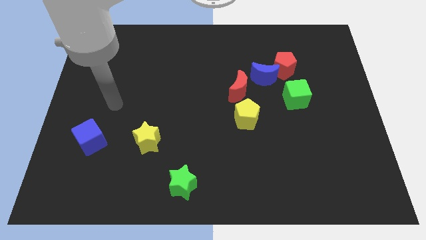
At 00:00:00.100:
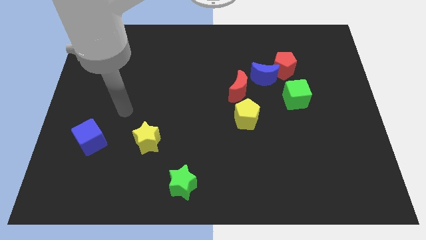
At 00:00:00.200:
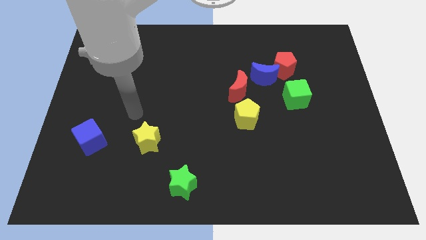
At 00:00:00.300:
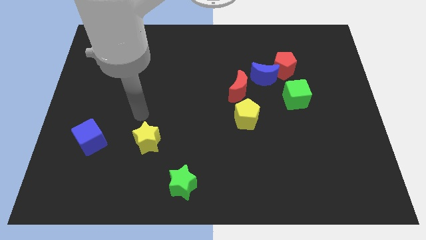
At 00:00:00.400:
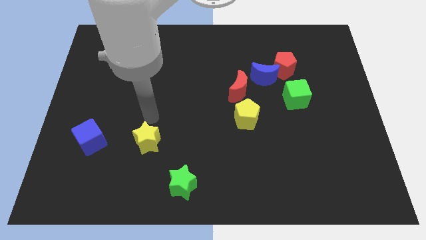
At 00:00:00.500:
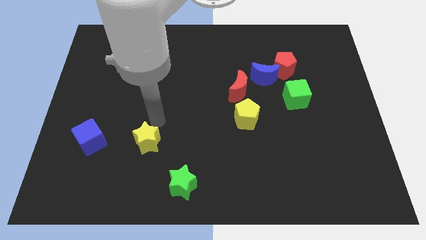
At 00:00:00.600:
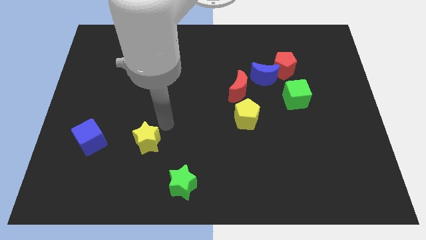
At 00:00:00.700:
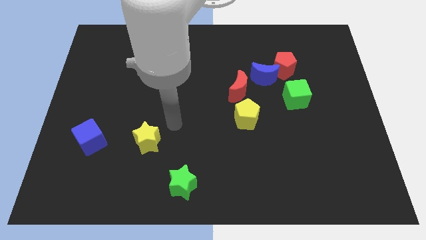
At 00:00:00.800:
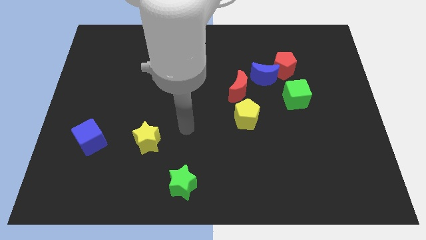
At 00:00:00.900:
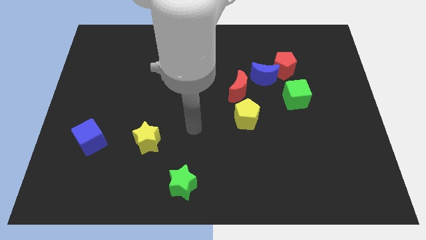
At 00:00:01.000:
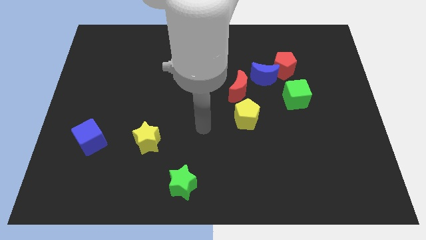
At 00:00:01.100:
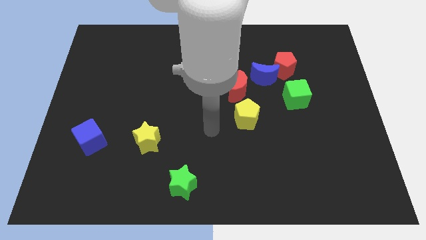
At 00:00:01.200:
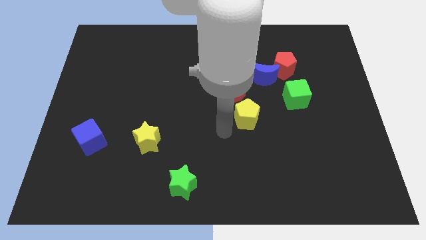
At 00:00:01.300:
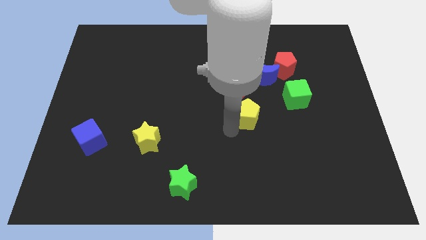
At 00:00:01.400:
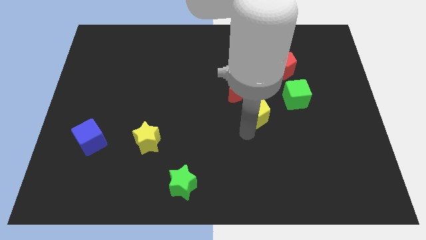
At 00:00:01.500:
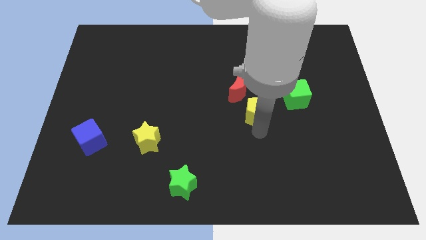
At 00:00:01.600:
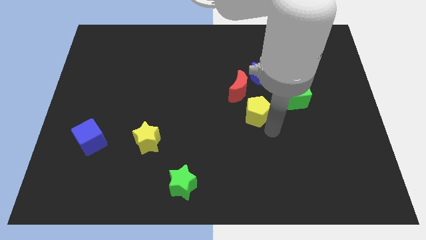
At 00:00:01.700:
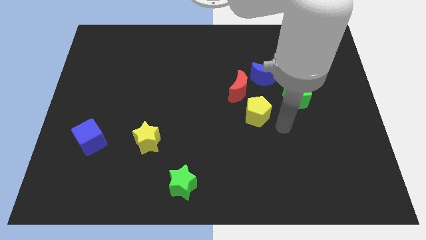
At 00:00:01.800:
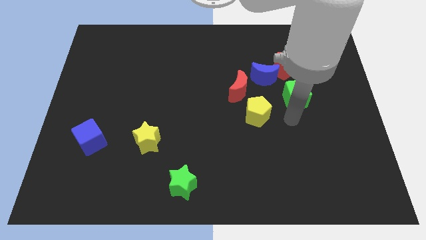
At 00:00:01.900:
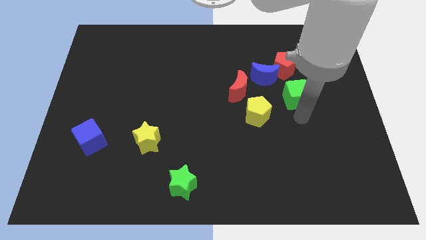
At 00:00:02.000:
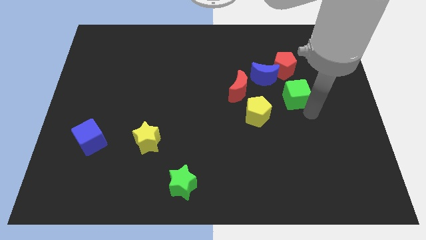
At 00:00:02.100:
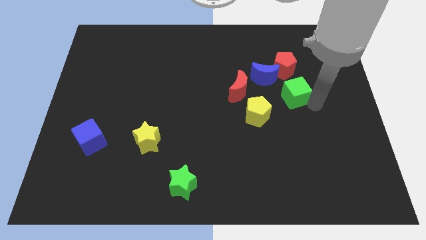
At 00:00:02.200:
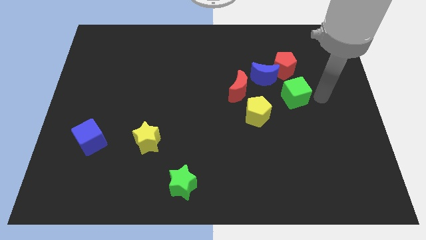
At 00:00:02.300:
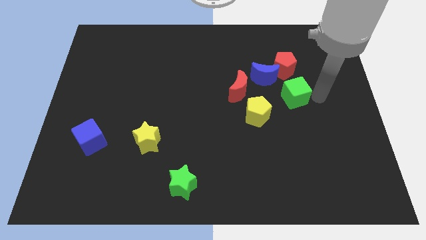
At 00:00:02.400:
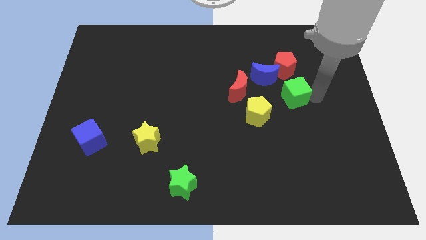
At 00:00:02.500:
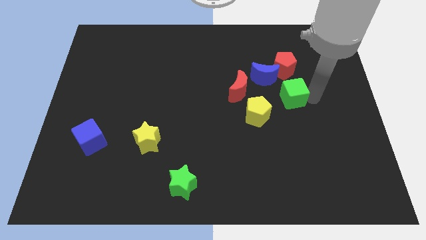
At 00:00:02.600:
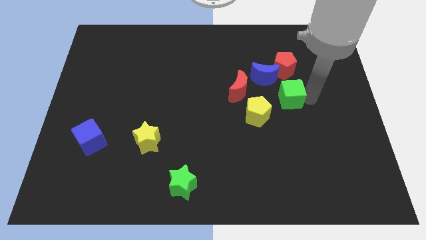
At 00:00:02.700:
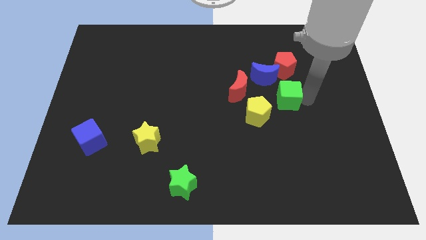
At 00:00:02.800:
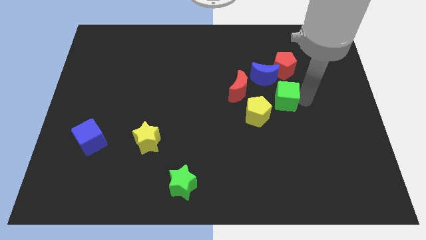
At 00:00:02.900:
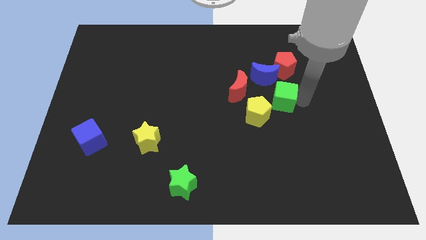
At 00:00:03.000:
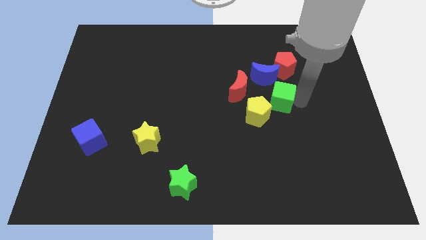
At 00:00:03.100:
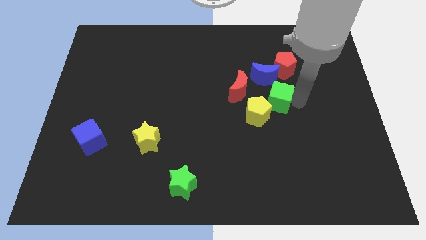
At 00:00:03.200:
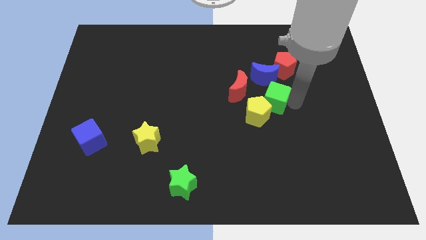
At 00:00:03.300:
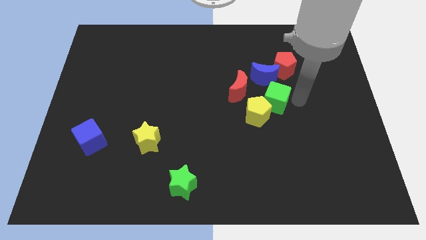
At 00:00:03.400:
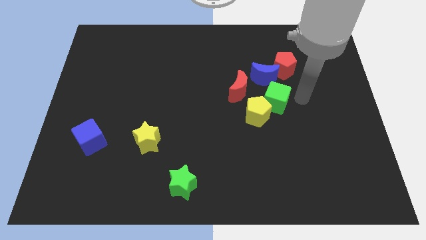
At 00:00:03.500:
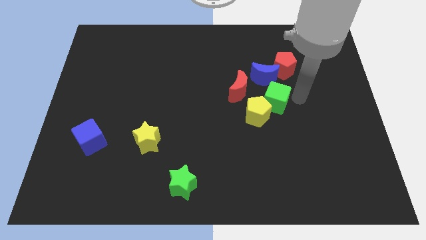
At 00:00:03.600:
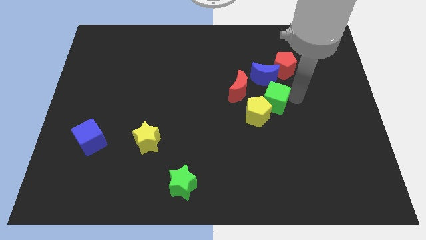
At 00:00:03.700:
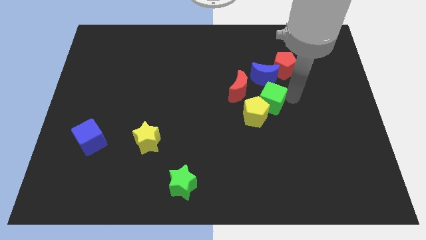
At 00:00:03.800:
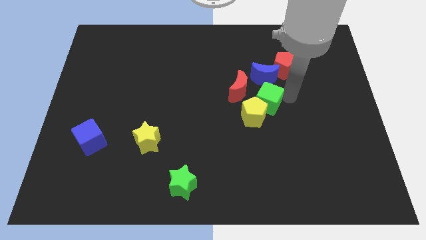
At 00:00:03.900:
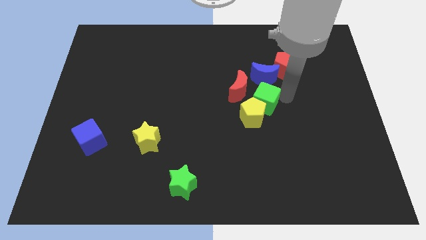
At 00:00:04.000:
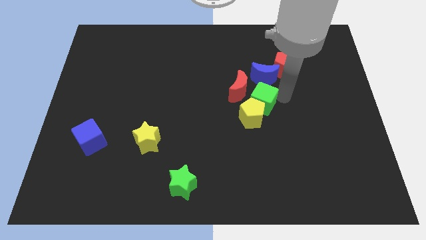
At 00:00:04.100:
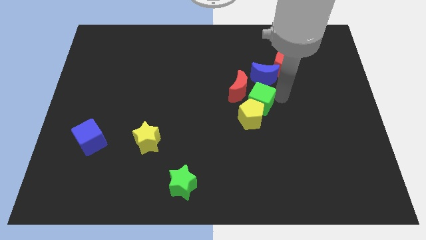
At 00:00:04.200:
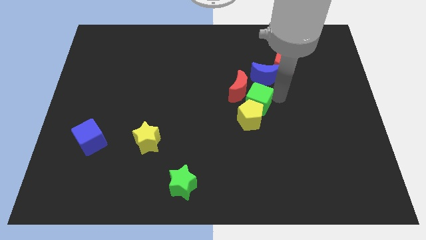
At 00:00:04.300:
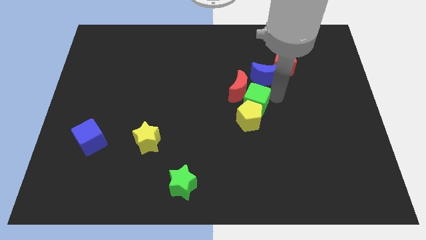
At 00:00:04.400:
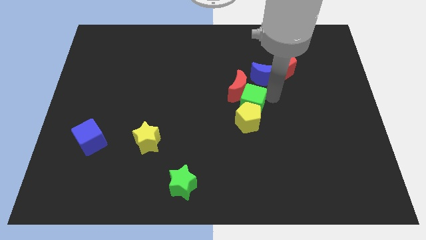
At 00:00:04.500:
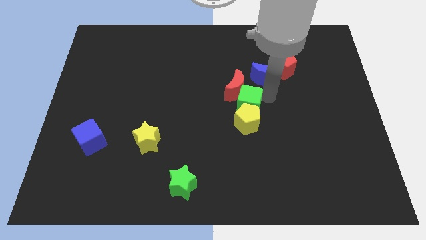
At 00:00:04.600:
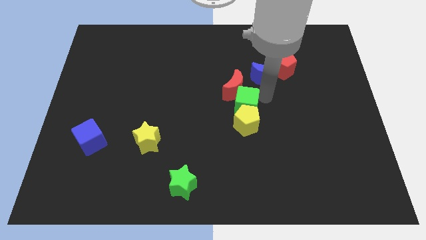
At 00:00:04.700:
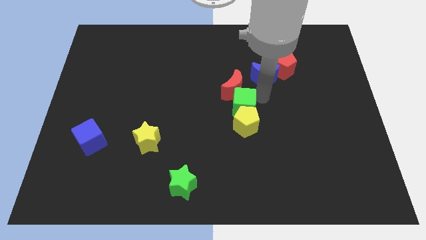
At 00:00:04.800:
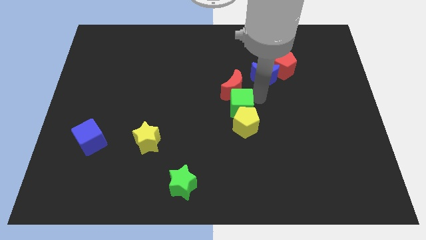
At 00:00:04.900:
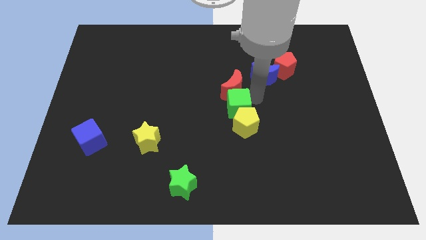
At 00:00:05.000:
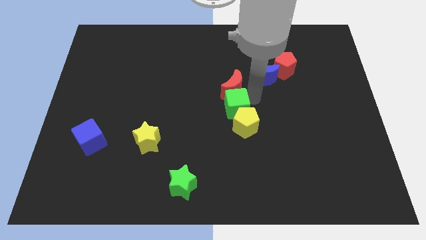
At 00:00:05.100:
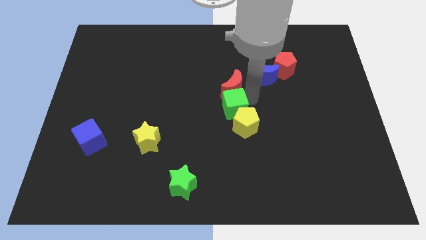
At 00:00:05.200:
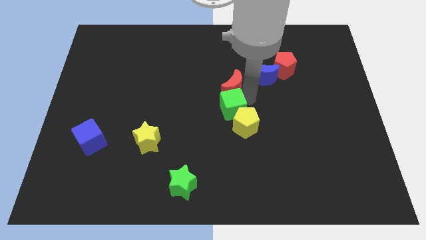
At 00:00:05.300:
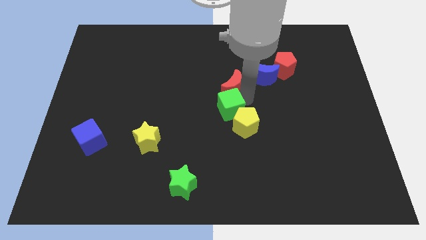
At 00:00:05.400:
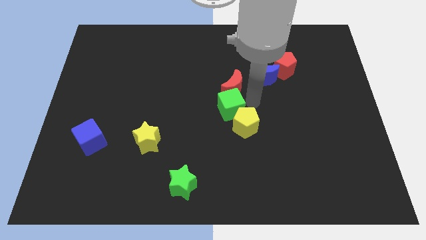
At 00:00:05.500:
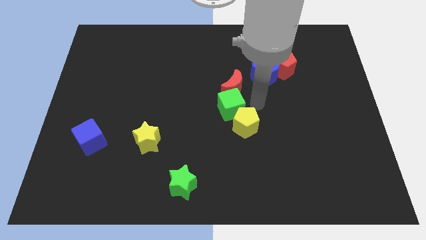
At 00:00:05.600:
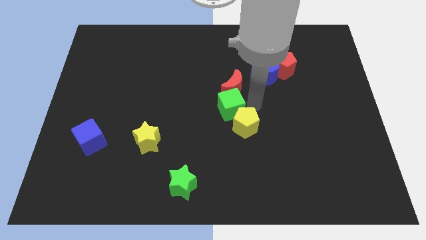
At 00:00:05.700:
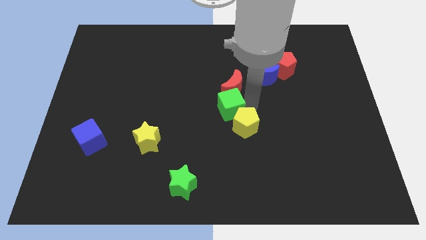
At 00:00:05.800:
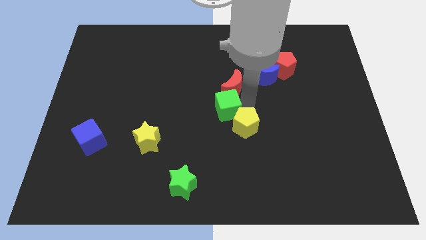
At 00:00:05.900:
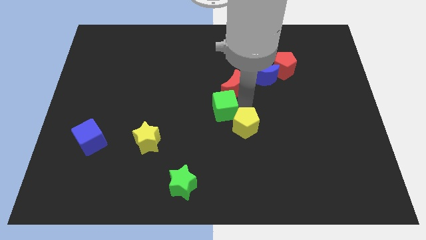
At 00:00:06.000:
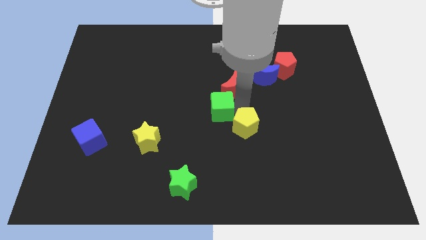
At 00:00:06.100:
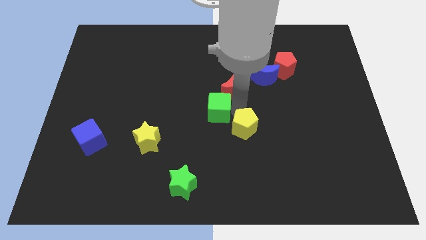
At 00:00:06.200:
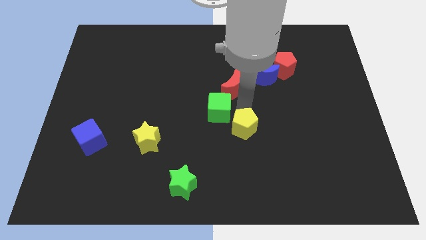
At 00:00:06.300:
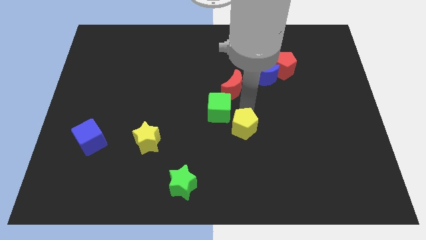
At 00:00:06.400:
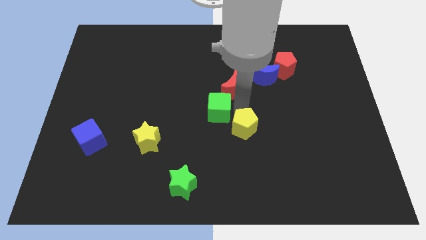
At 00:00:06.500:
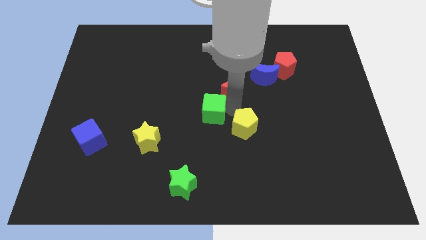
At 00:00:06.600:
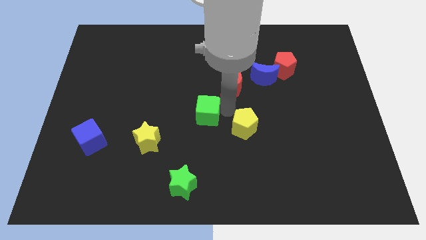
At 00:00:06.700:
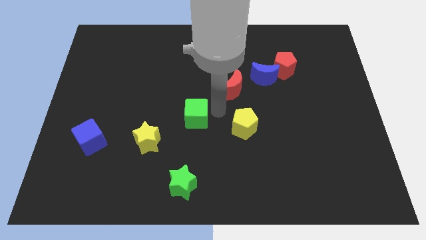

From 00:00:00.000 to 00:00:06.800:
slide the green cube diagonally up and to the right of the yellow star
